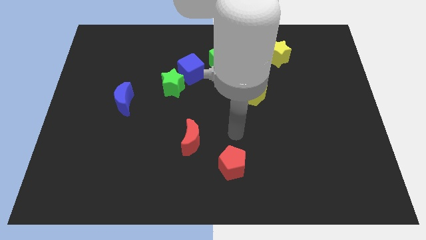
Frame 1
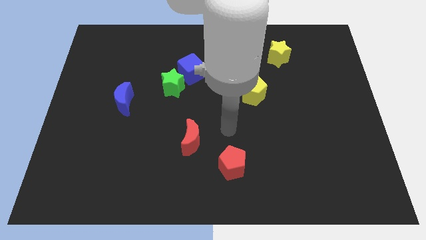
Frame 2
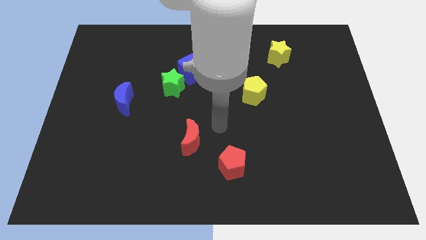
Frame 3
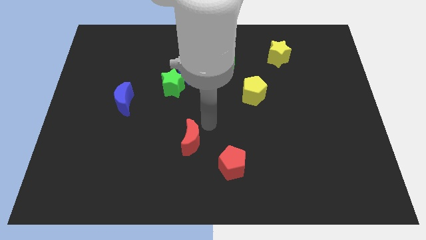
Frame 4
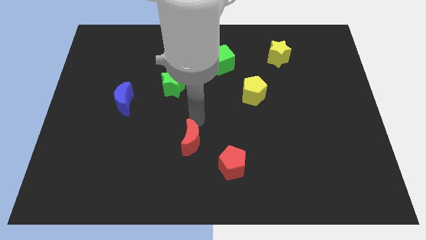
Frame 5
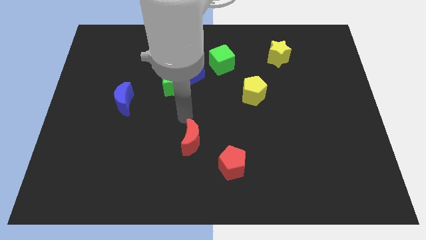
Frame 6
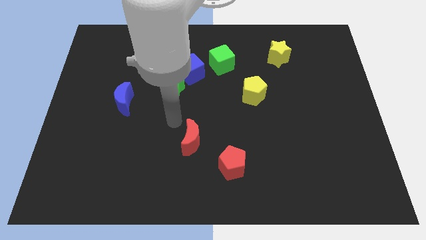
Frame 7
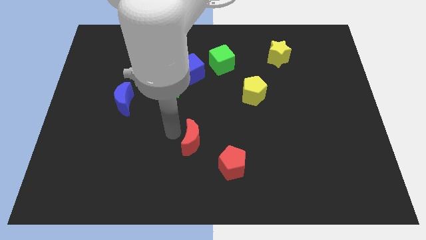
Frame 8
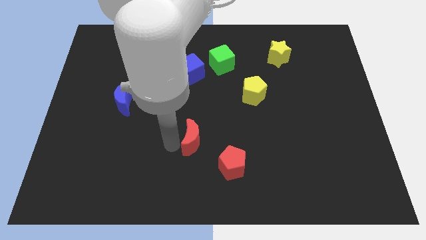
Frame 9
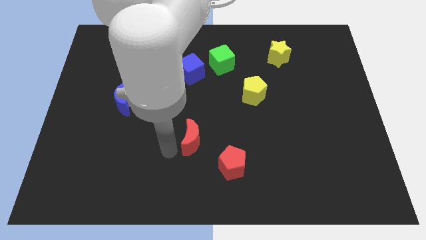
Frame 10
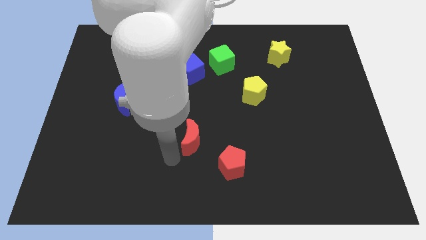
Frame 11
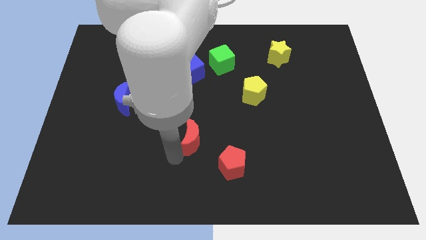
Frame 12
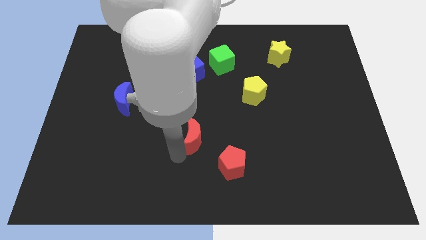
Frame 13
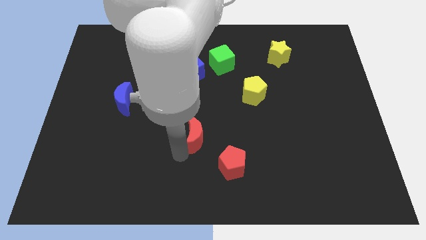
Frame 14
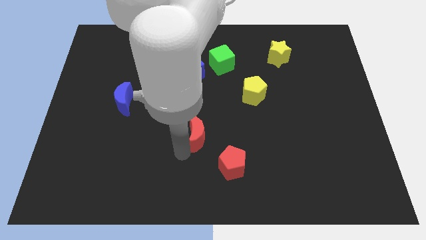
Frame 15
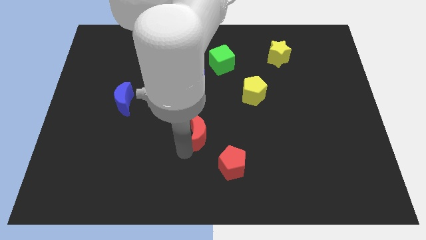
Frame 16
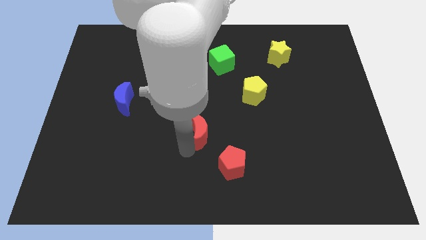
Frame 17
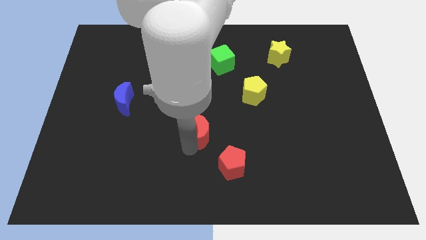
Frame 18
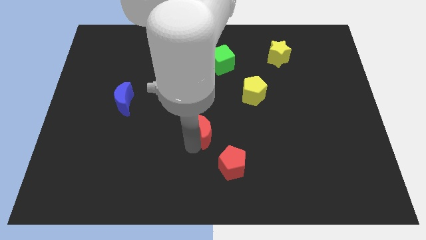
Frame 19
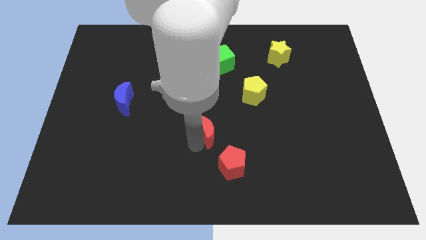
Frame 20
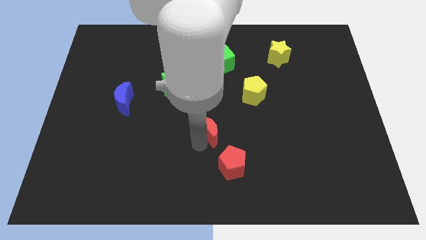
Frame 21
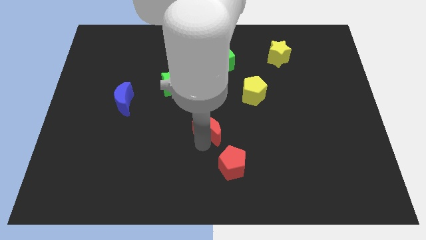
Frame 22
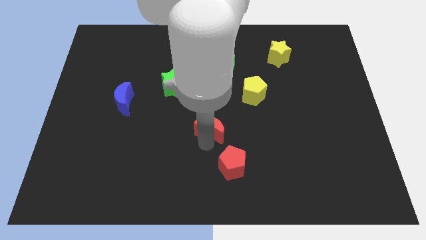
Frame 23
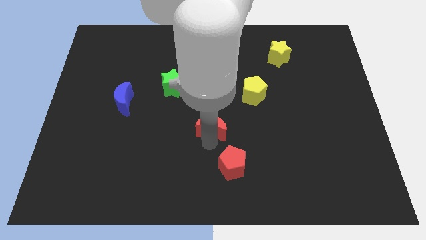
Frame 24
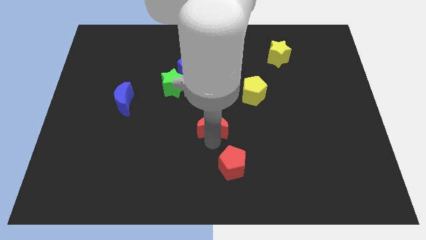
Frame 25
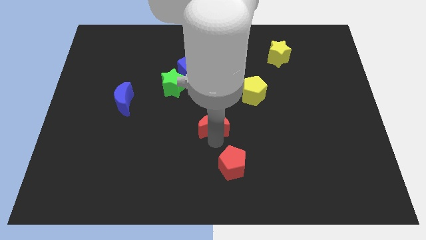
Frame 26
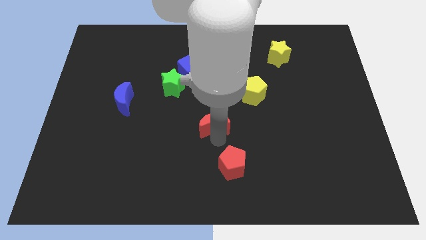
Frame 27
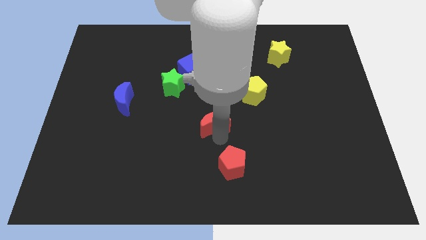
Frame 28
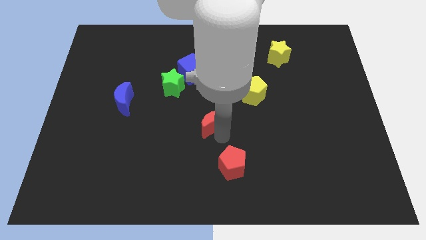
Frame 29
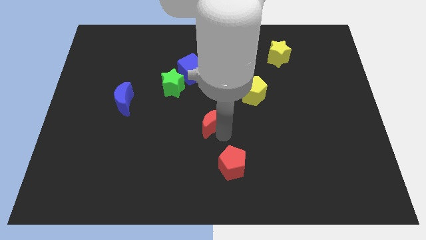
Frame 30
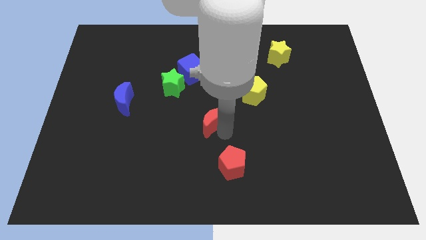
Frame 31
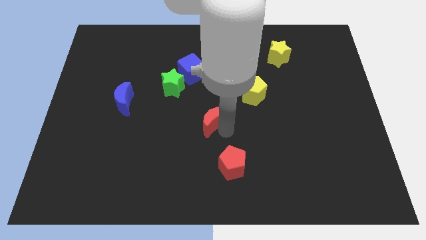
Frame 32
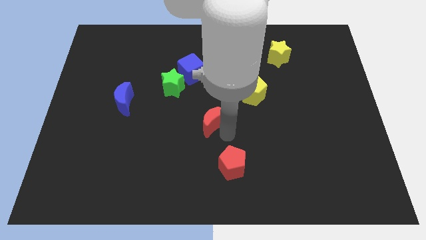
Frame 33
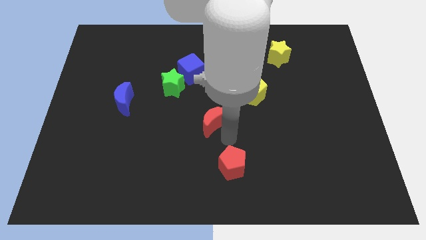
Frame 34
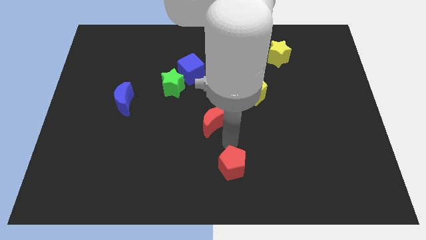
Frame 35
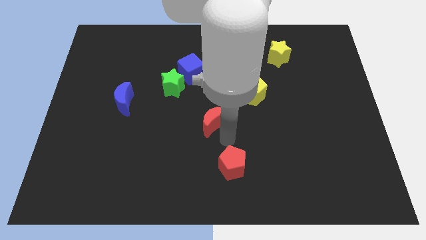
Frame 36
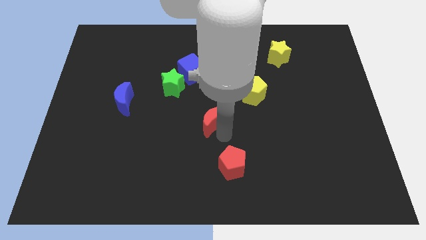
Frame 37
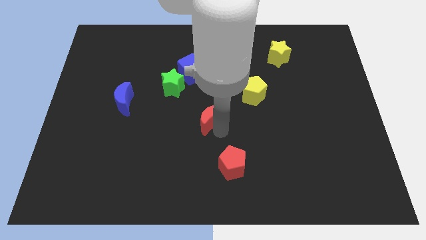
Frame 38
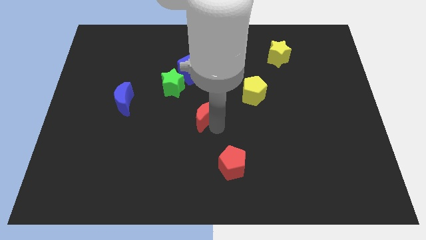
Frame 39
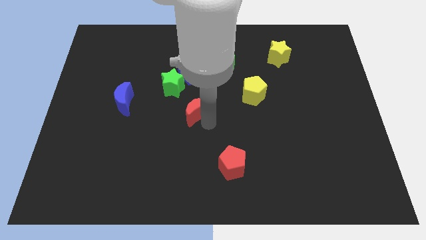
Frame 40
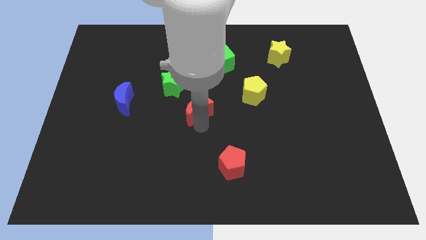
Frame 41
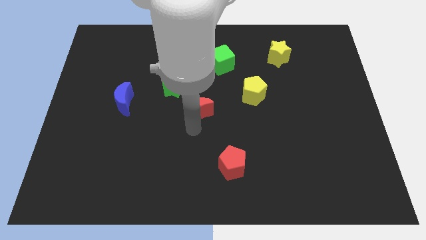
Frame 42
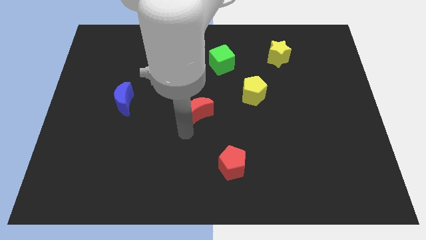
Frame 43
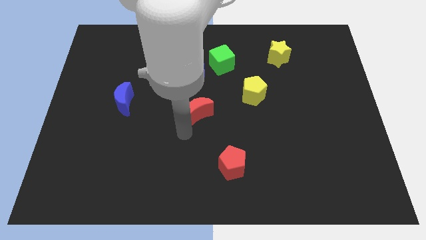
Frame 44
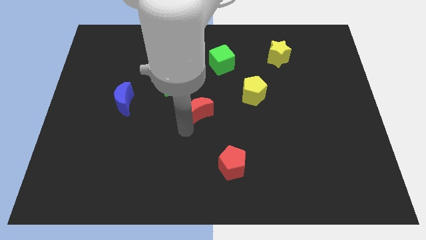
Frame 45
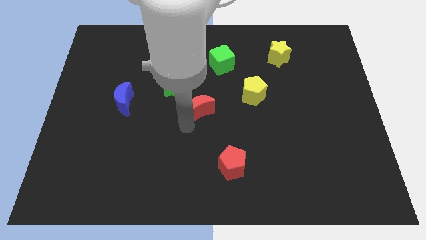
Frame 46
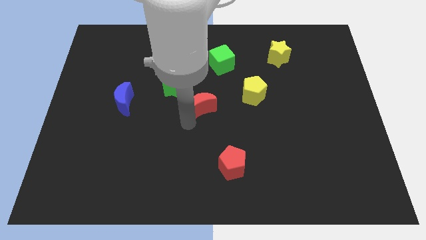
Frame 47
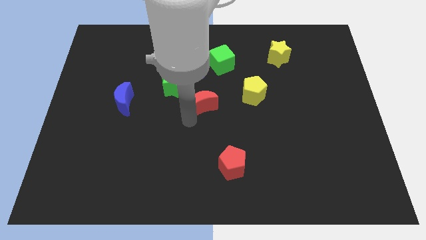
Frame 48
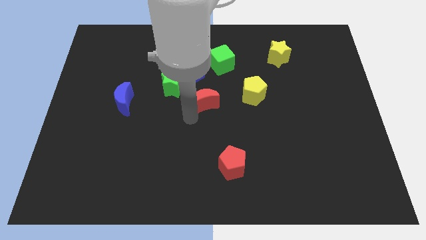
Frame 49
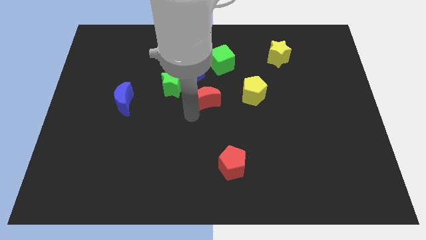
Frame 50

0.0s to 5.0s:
slide the red moon to the right of the green star

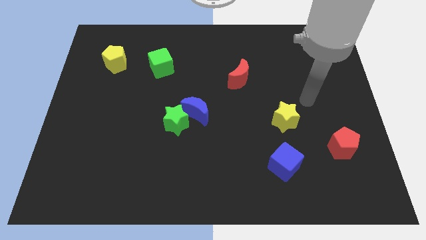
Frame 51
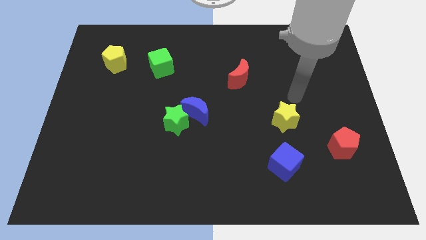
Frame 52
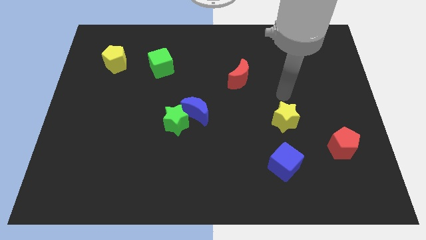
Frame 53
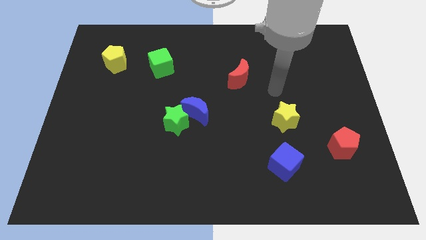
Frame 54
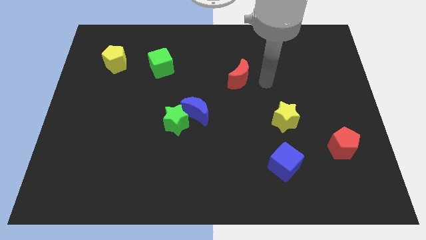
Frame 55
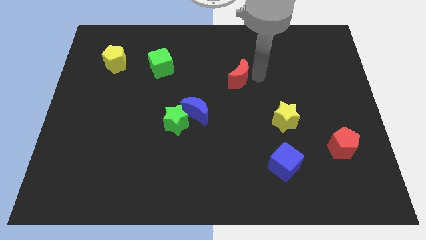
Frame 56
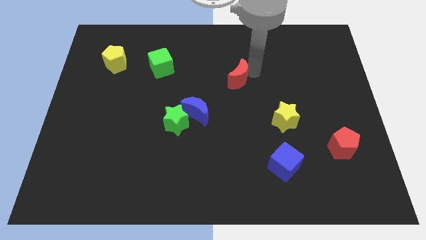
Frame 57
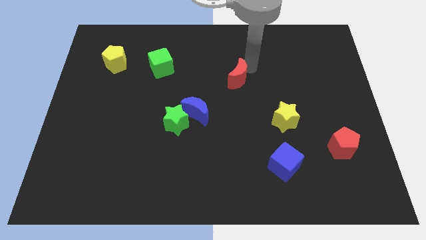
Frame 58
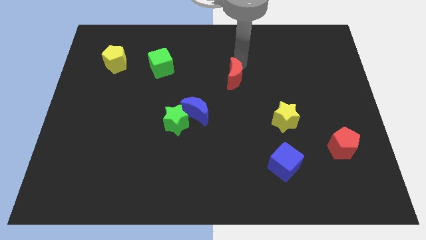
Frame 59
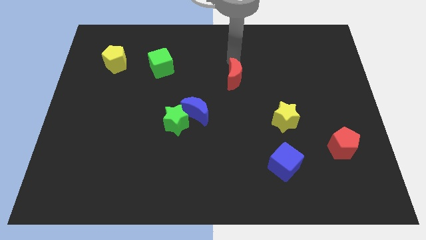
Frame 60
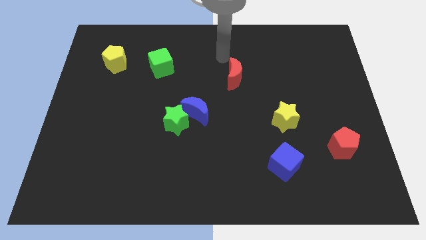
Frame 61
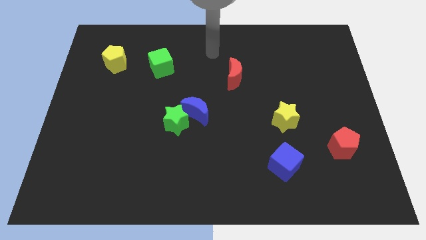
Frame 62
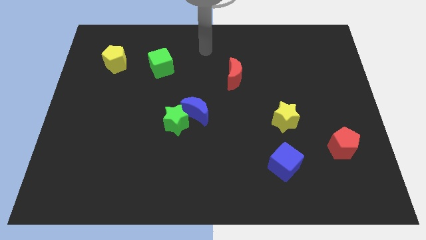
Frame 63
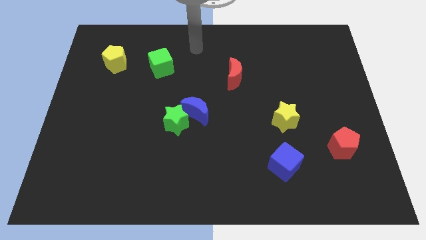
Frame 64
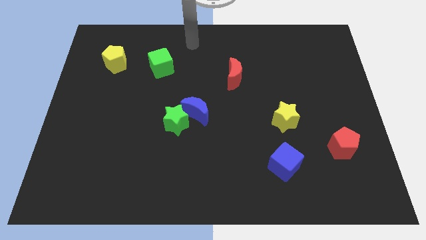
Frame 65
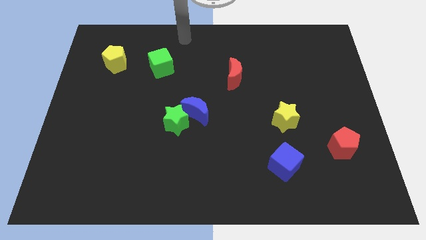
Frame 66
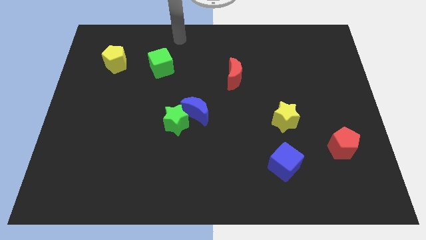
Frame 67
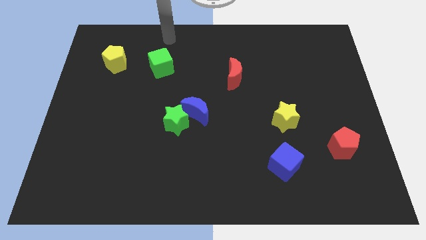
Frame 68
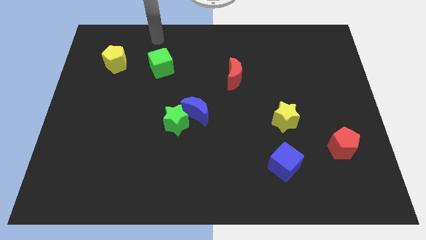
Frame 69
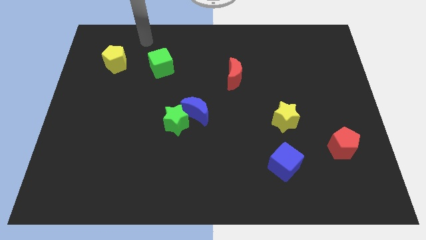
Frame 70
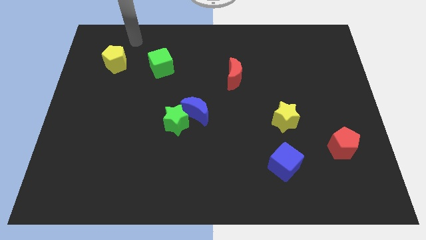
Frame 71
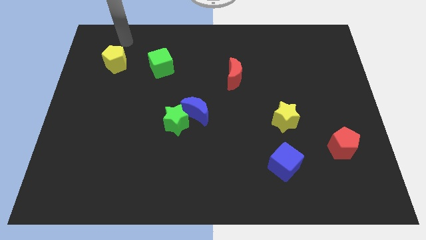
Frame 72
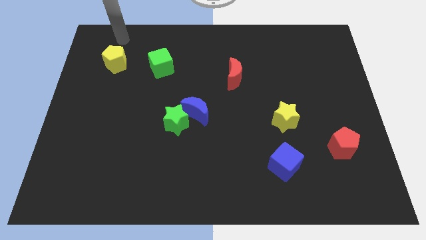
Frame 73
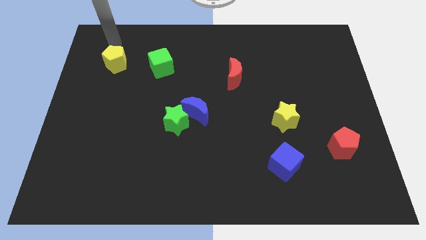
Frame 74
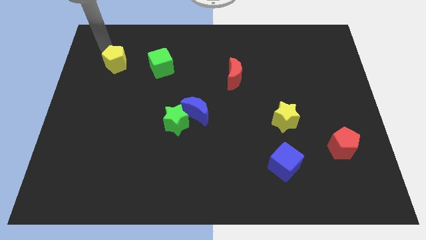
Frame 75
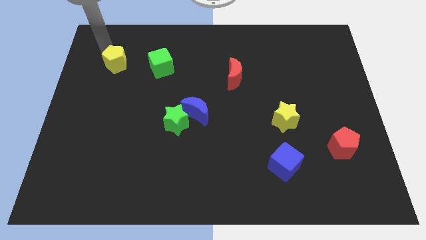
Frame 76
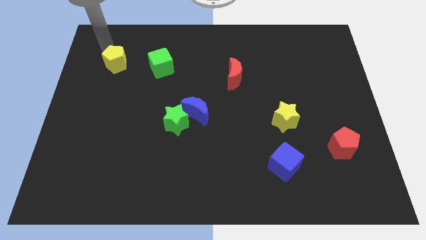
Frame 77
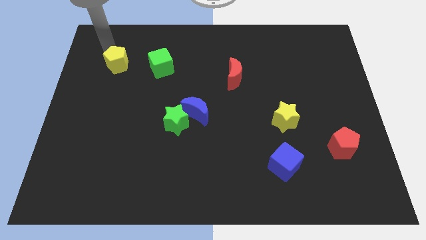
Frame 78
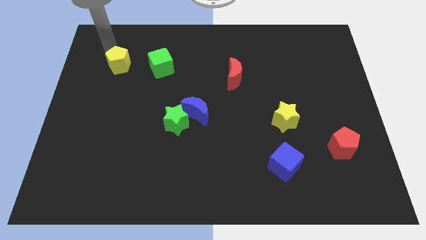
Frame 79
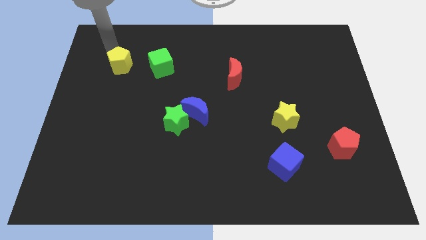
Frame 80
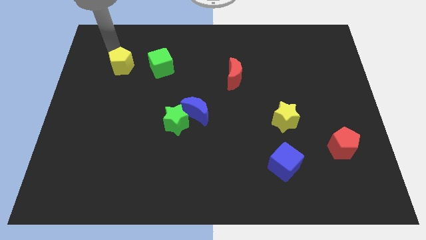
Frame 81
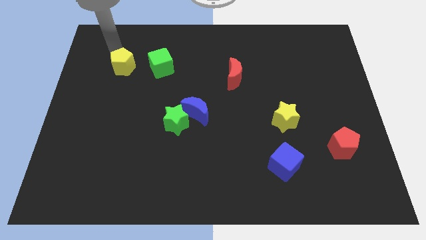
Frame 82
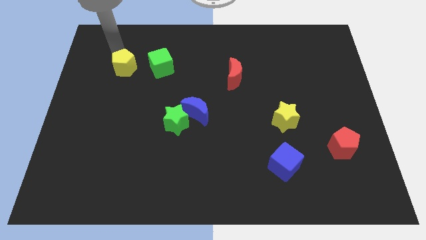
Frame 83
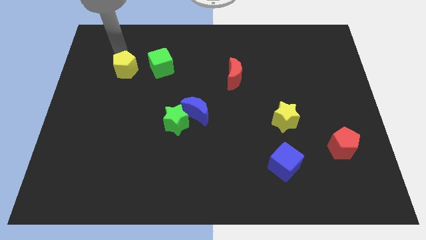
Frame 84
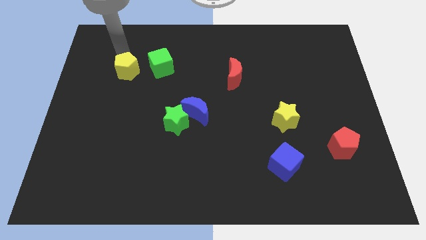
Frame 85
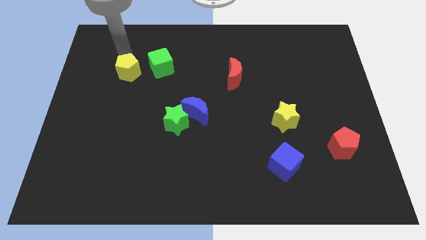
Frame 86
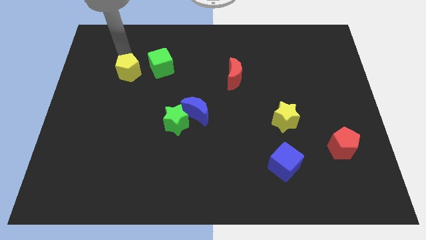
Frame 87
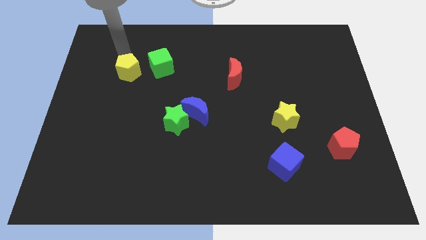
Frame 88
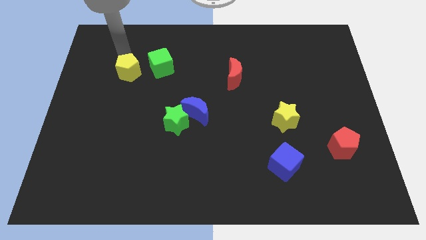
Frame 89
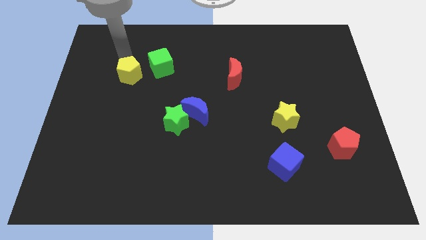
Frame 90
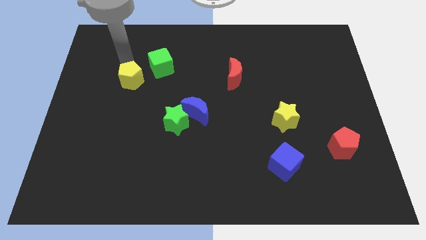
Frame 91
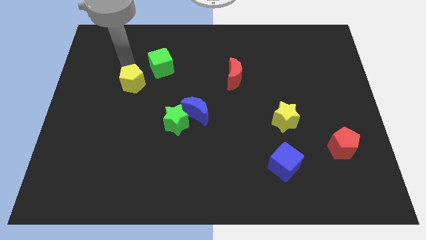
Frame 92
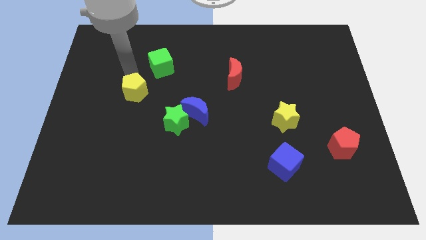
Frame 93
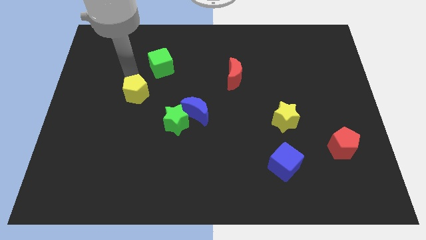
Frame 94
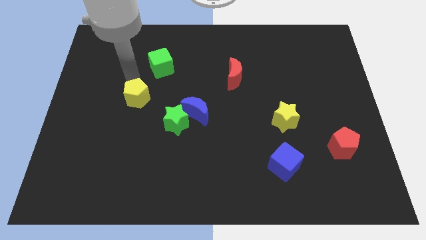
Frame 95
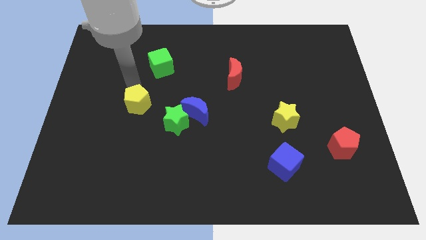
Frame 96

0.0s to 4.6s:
put the yellow pentagon left of the blue moon
